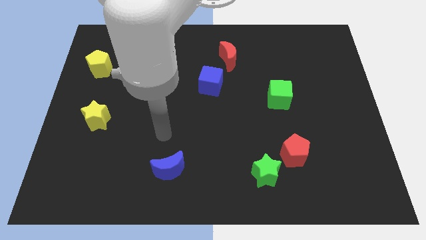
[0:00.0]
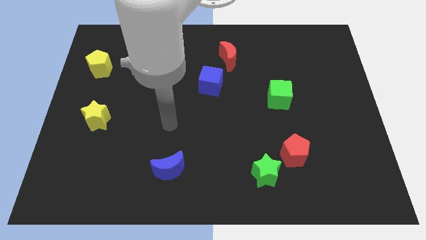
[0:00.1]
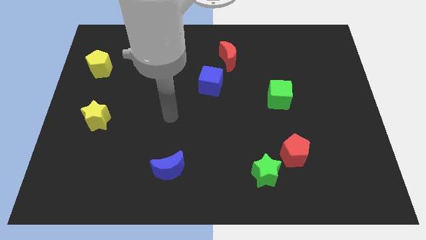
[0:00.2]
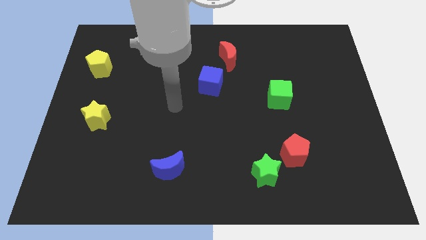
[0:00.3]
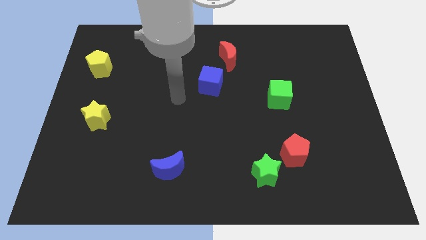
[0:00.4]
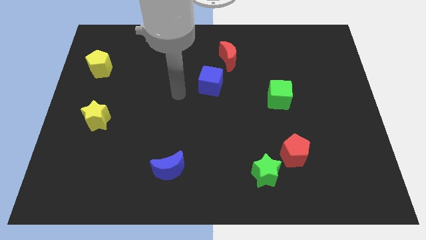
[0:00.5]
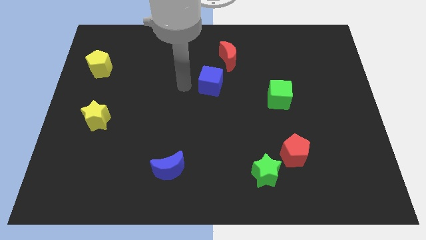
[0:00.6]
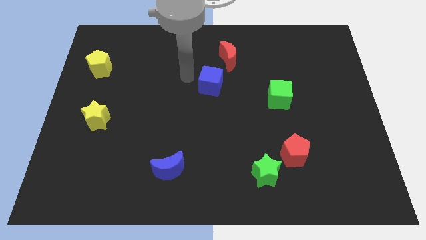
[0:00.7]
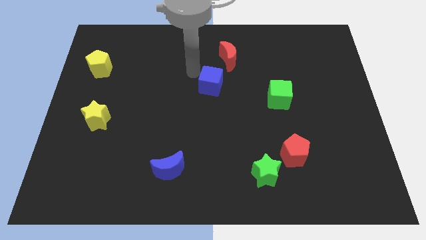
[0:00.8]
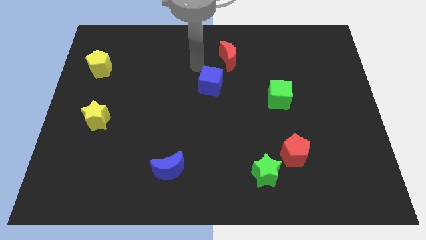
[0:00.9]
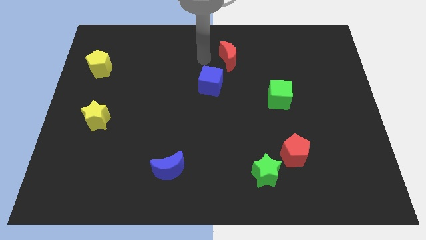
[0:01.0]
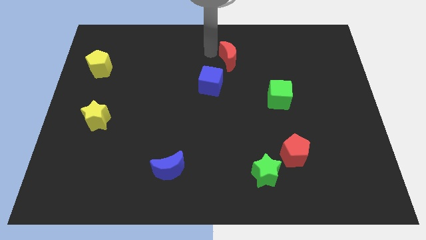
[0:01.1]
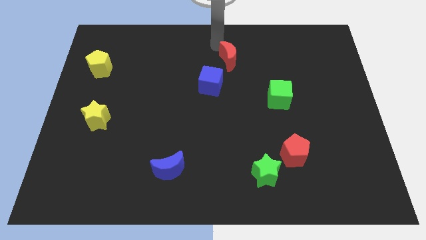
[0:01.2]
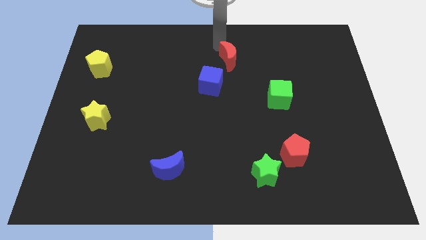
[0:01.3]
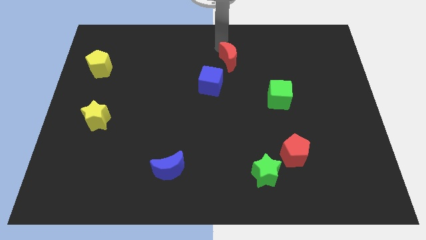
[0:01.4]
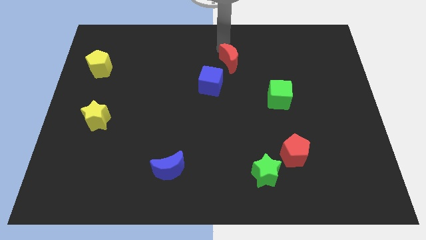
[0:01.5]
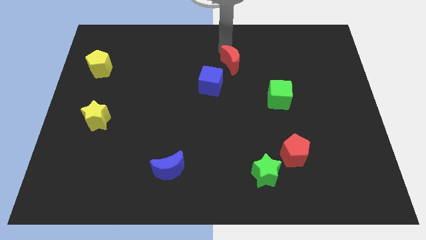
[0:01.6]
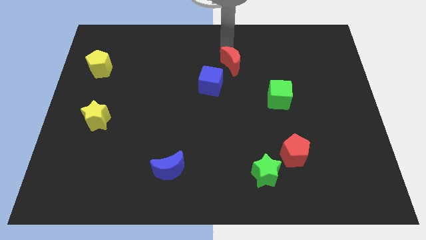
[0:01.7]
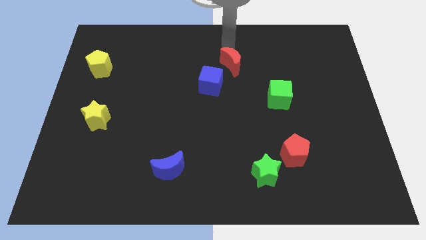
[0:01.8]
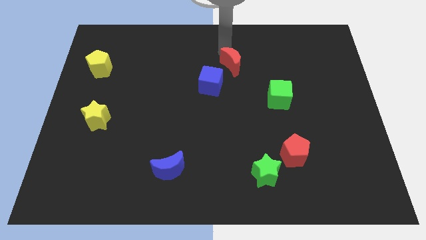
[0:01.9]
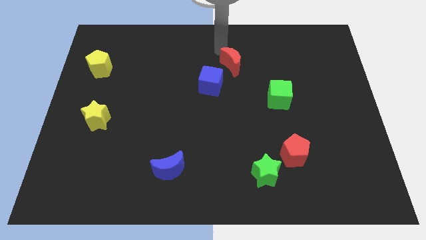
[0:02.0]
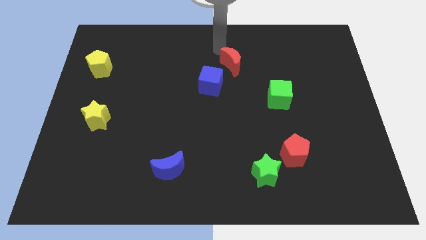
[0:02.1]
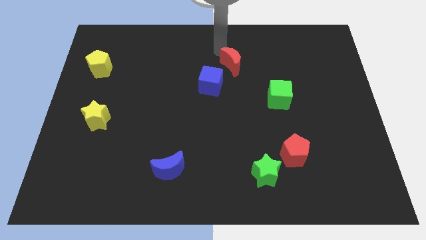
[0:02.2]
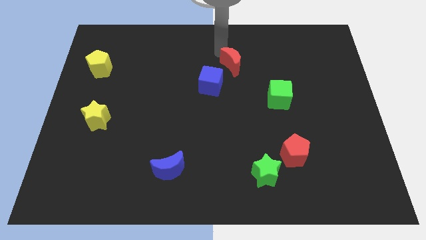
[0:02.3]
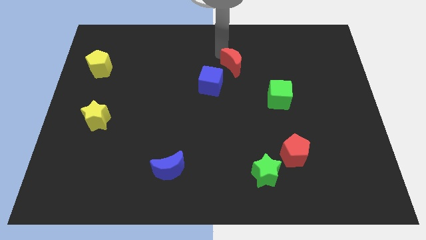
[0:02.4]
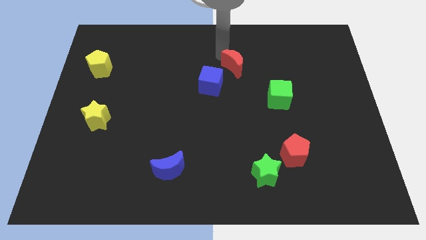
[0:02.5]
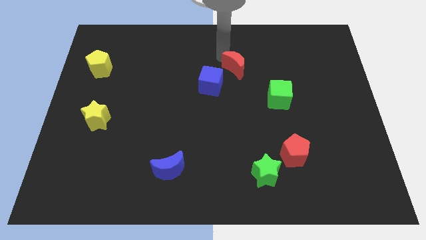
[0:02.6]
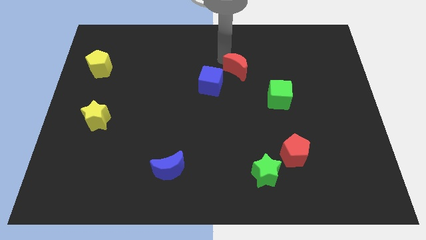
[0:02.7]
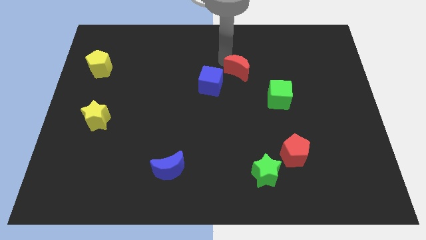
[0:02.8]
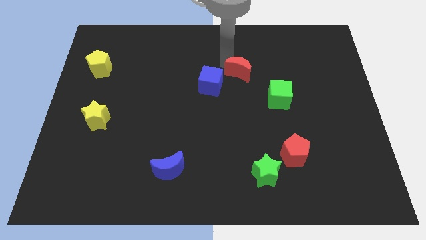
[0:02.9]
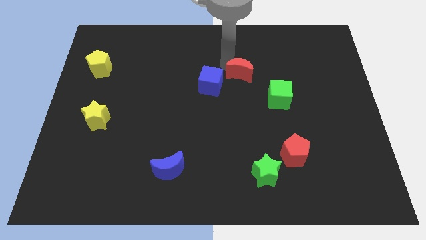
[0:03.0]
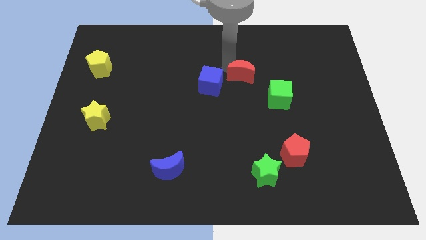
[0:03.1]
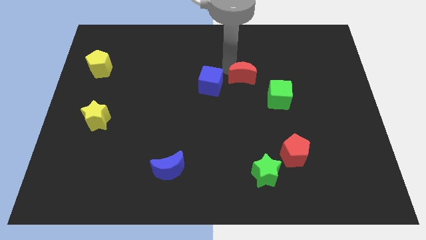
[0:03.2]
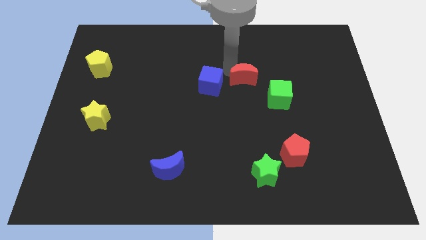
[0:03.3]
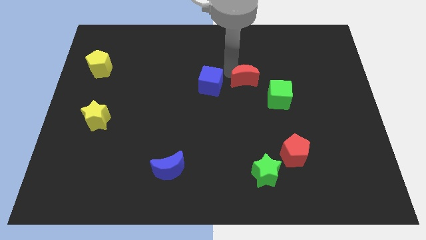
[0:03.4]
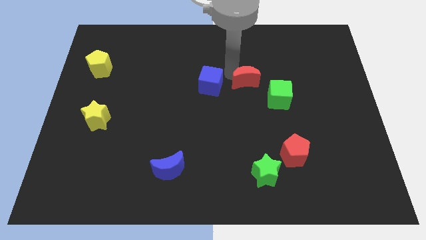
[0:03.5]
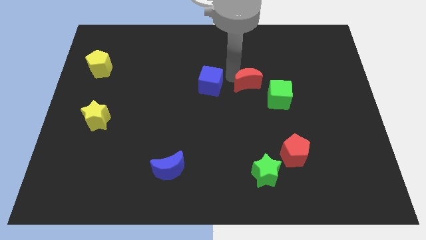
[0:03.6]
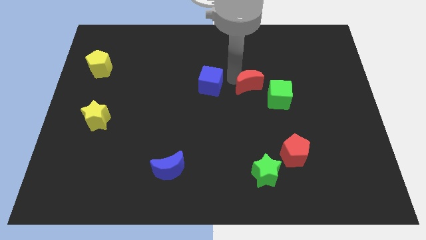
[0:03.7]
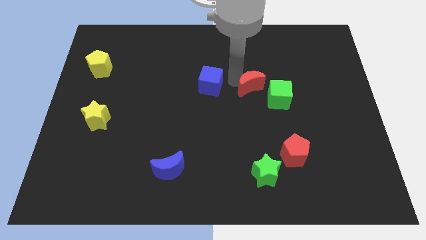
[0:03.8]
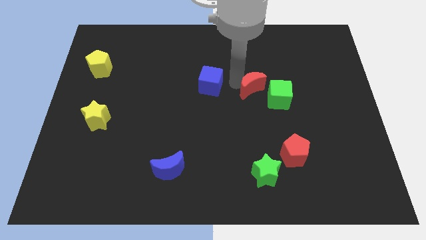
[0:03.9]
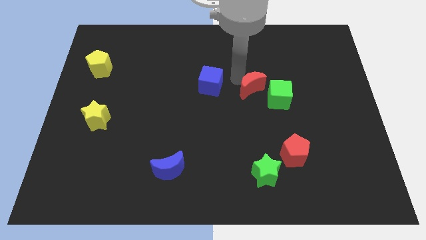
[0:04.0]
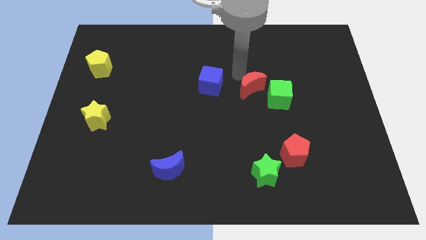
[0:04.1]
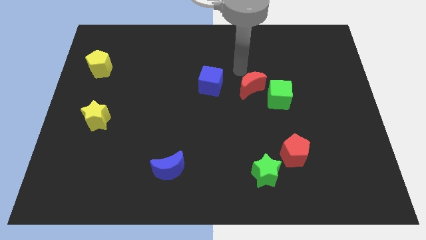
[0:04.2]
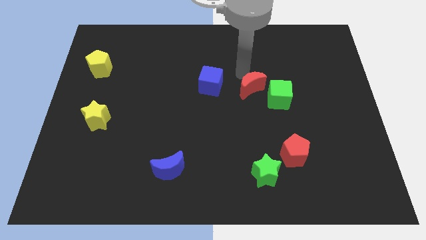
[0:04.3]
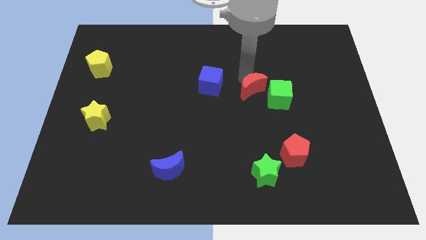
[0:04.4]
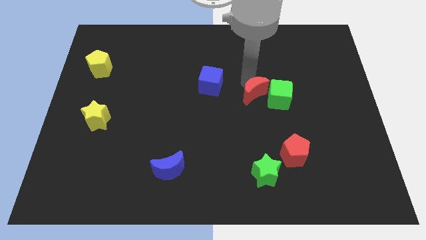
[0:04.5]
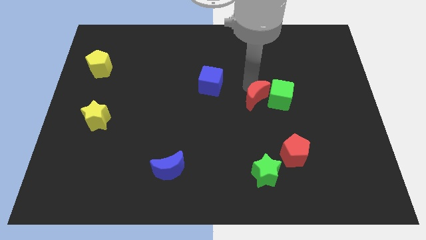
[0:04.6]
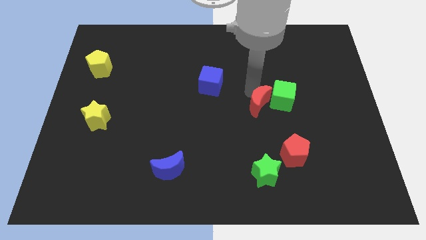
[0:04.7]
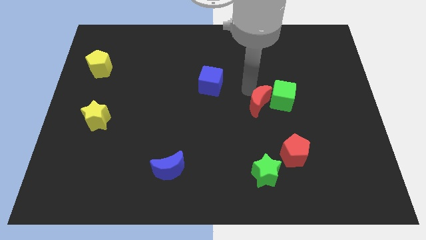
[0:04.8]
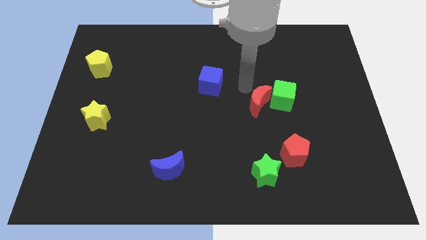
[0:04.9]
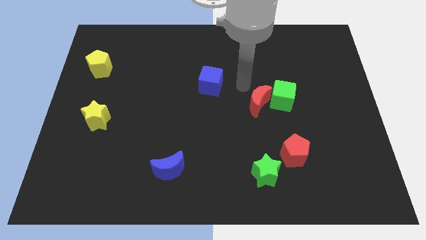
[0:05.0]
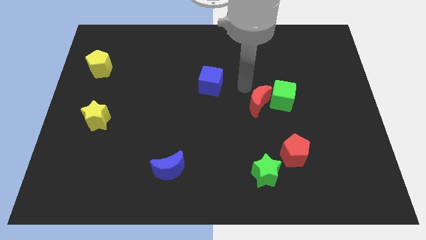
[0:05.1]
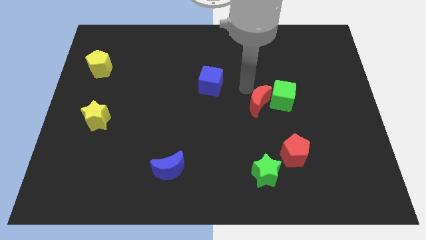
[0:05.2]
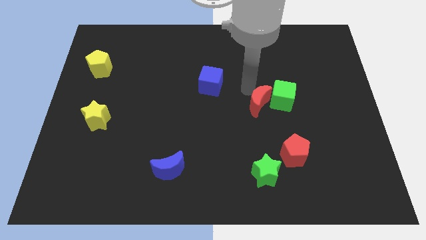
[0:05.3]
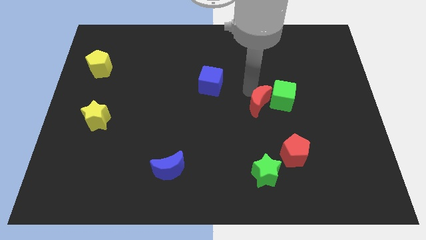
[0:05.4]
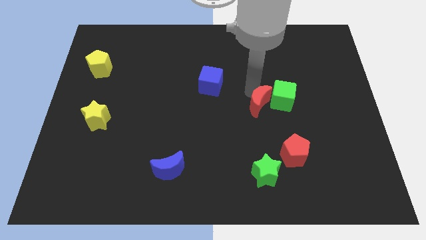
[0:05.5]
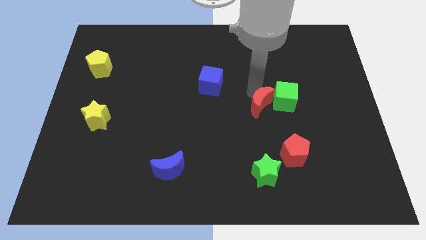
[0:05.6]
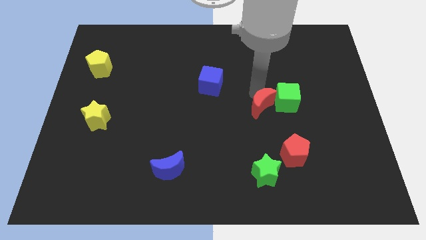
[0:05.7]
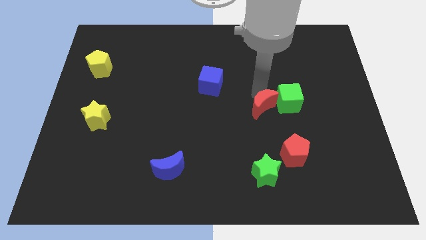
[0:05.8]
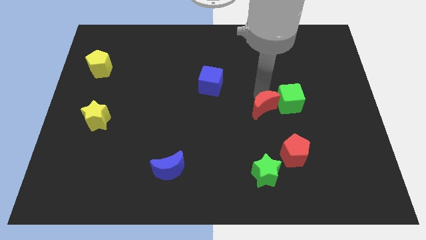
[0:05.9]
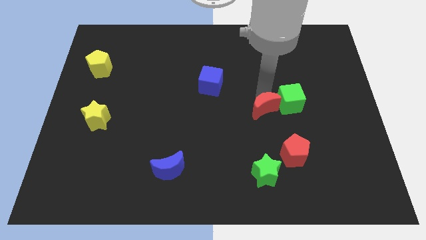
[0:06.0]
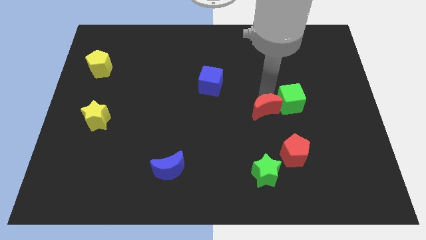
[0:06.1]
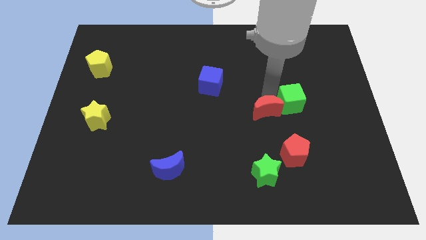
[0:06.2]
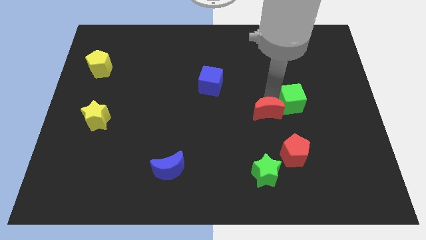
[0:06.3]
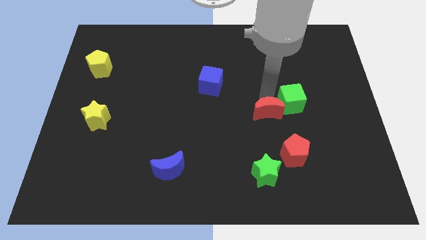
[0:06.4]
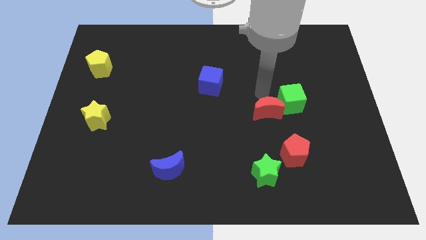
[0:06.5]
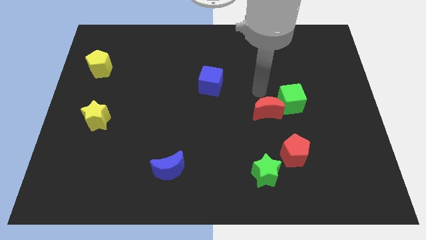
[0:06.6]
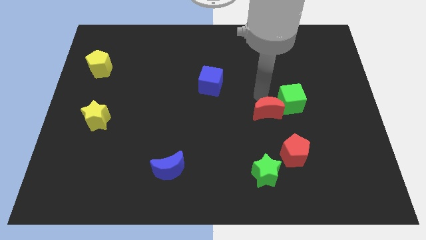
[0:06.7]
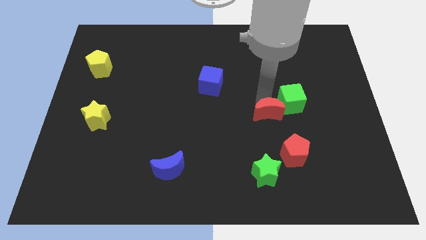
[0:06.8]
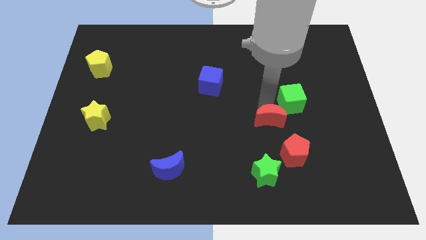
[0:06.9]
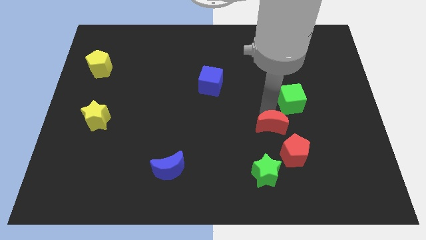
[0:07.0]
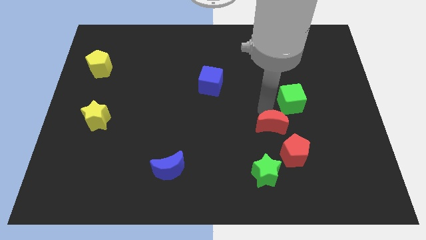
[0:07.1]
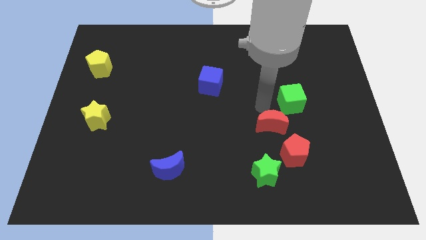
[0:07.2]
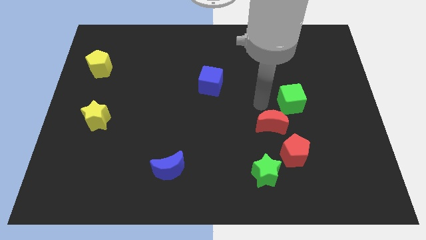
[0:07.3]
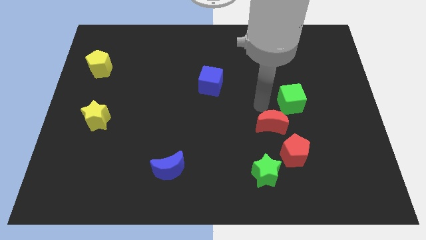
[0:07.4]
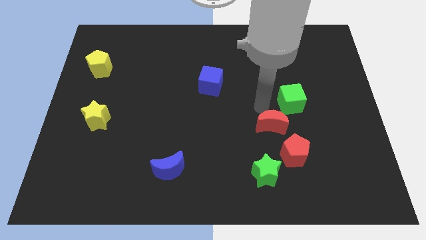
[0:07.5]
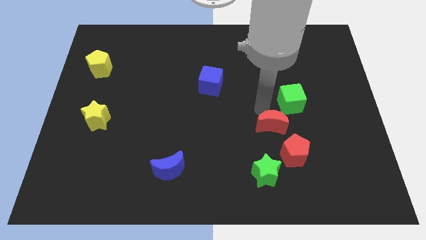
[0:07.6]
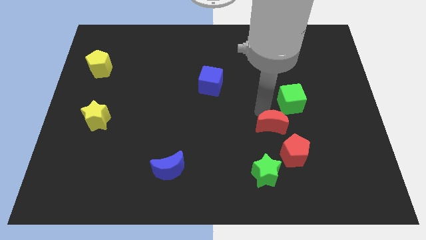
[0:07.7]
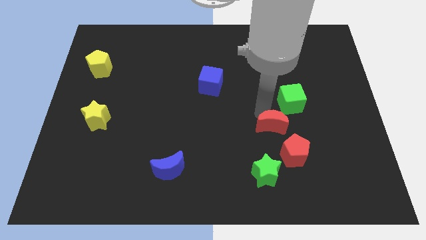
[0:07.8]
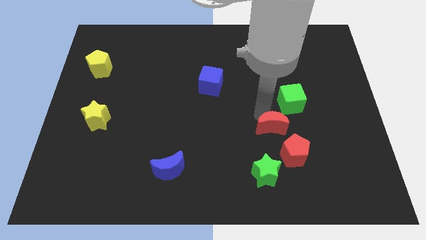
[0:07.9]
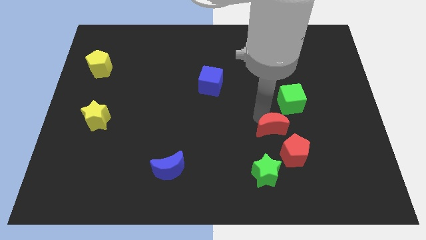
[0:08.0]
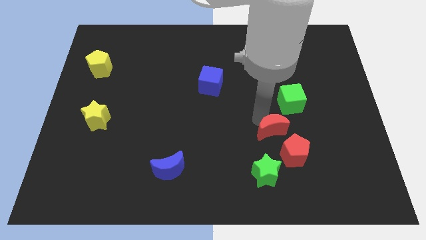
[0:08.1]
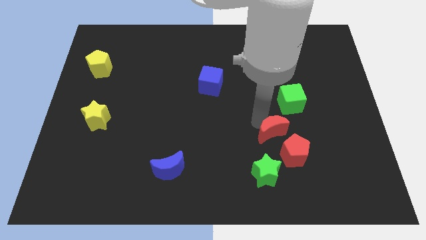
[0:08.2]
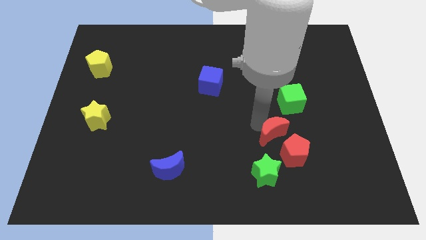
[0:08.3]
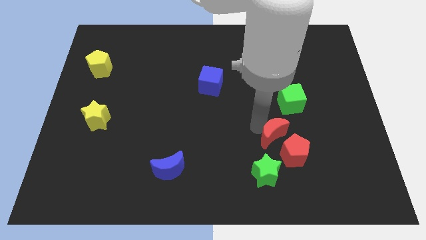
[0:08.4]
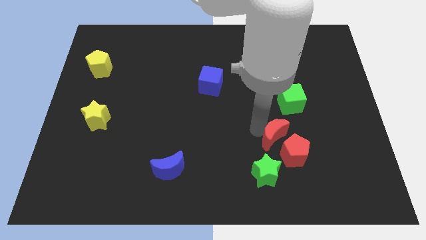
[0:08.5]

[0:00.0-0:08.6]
put the red moon towards the red pentagon
